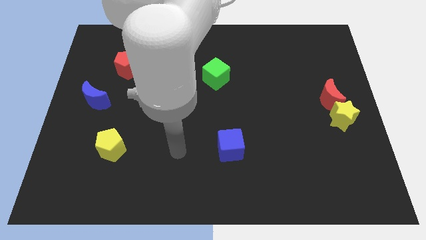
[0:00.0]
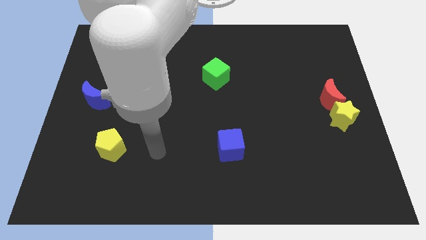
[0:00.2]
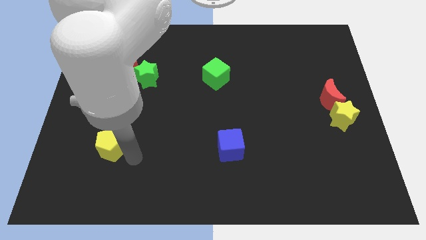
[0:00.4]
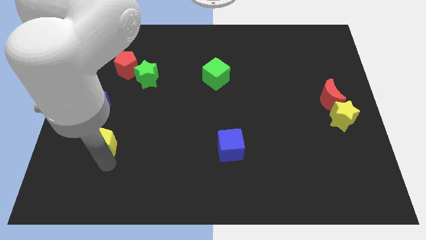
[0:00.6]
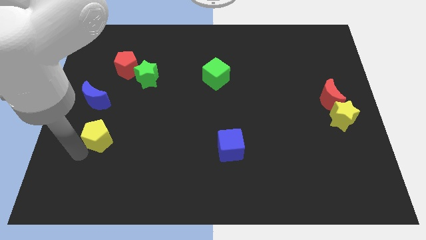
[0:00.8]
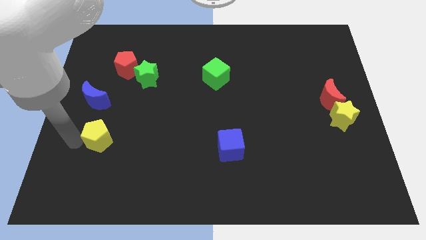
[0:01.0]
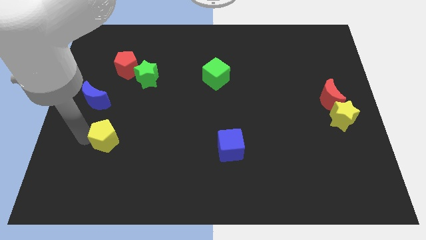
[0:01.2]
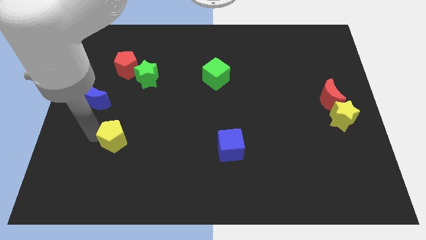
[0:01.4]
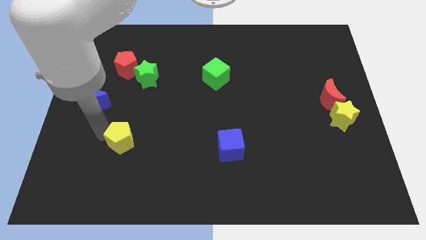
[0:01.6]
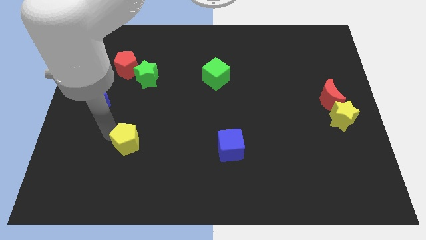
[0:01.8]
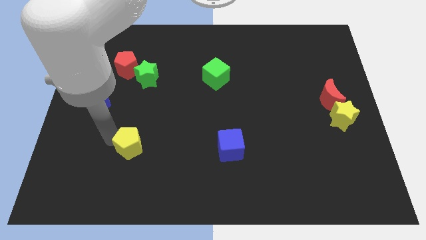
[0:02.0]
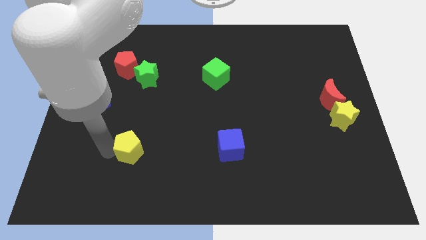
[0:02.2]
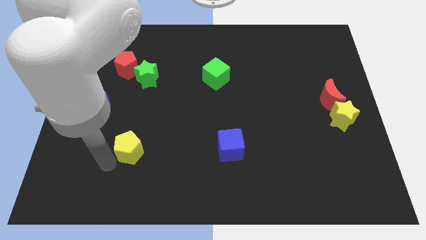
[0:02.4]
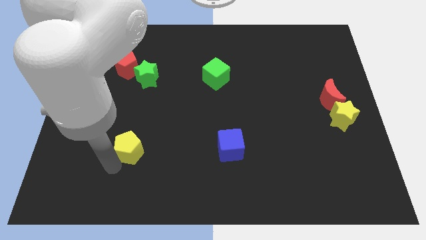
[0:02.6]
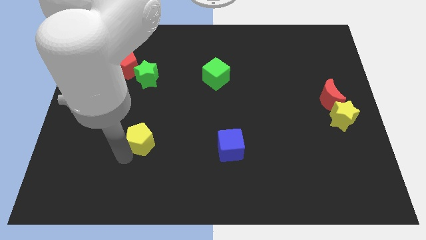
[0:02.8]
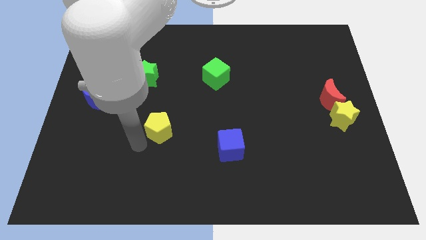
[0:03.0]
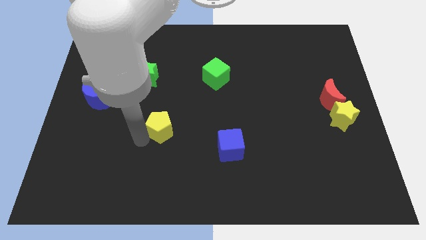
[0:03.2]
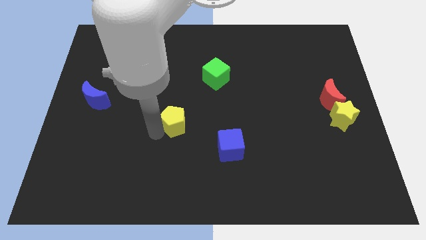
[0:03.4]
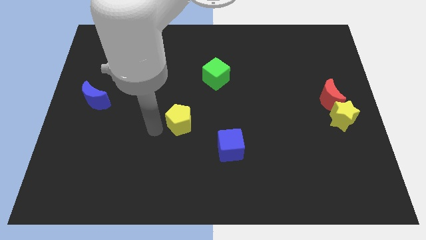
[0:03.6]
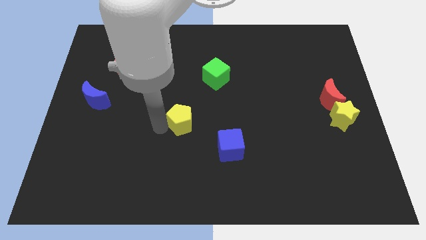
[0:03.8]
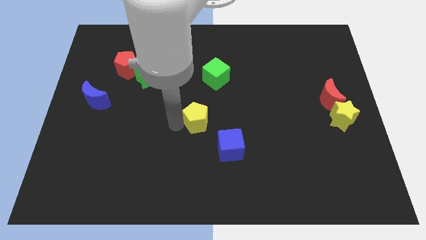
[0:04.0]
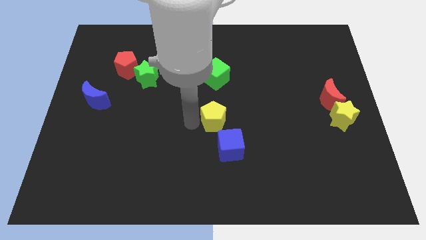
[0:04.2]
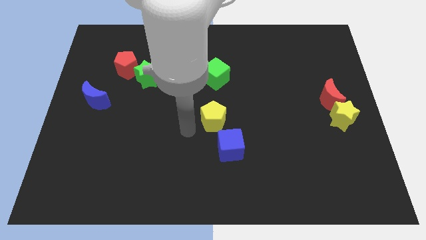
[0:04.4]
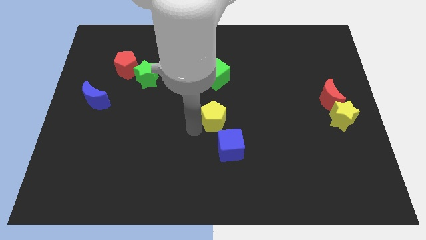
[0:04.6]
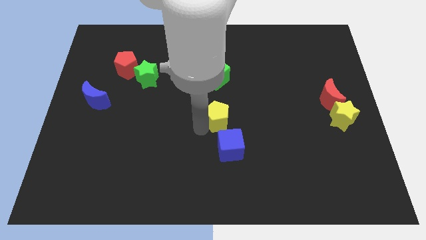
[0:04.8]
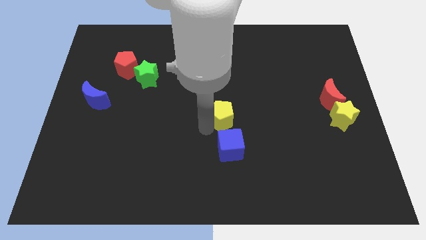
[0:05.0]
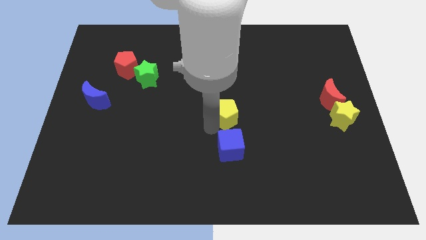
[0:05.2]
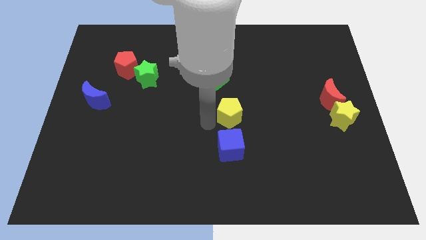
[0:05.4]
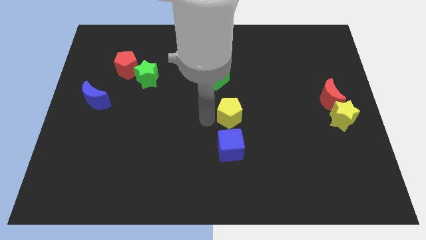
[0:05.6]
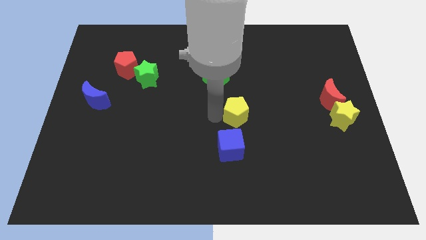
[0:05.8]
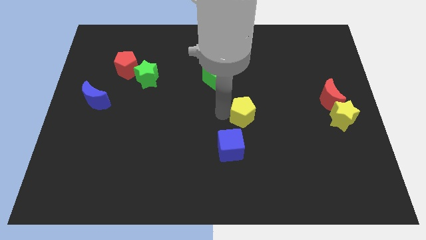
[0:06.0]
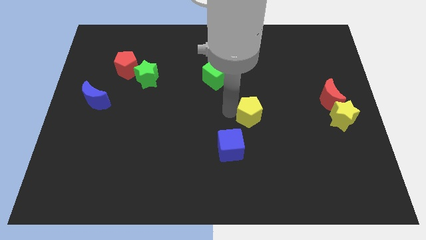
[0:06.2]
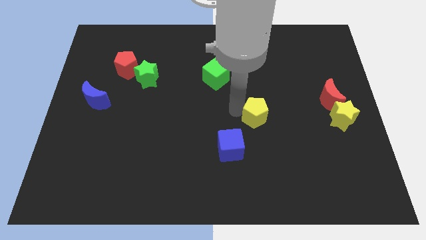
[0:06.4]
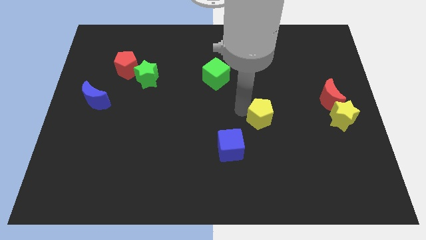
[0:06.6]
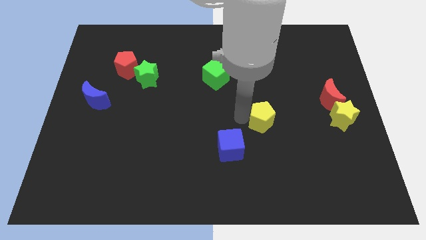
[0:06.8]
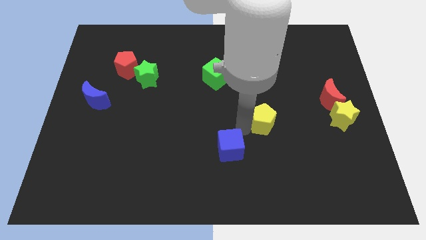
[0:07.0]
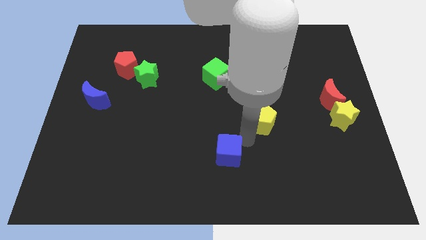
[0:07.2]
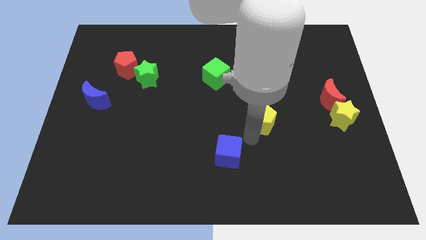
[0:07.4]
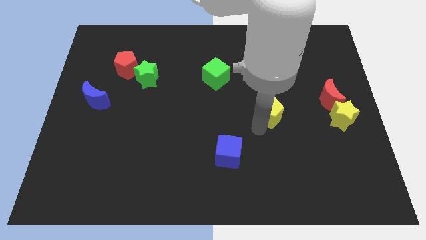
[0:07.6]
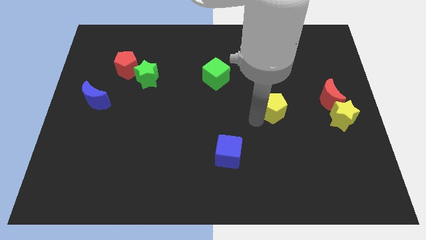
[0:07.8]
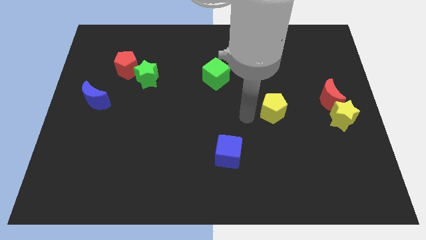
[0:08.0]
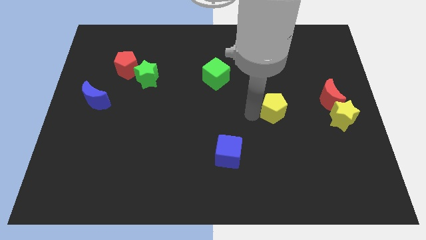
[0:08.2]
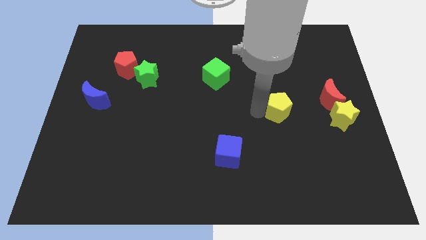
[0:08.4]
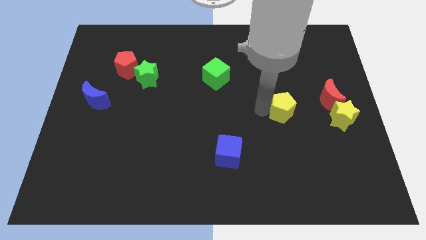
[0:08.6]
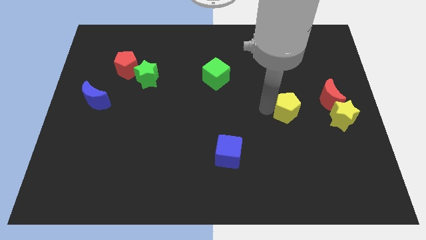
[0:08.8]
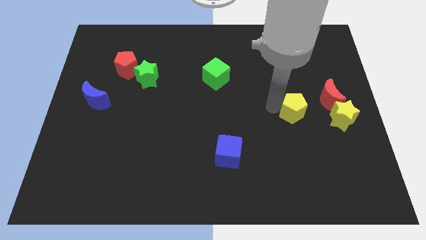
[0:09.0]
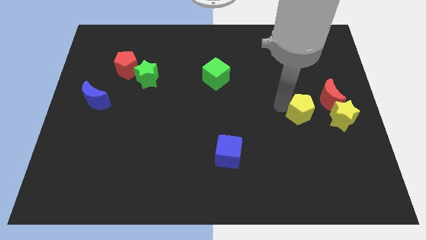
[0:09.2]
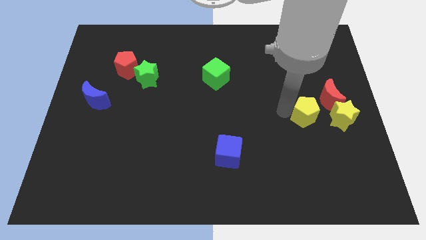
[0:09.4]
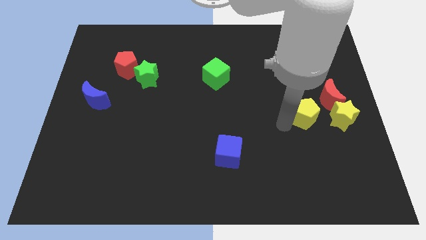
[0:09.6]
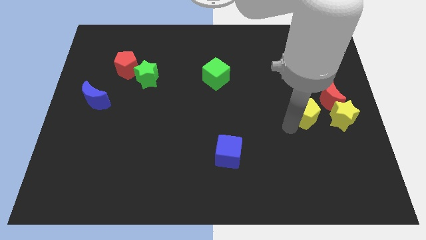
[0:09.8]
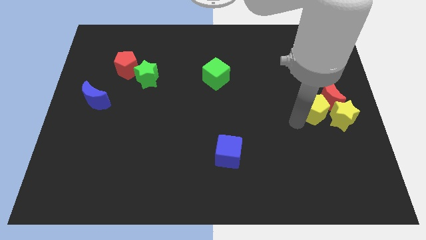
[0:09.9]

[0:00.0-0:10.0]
slide the yellow pentagon close to the red moon

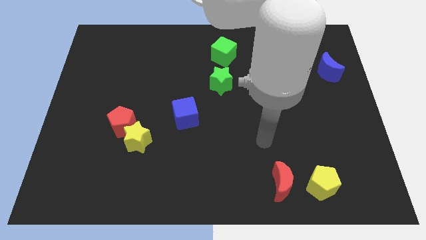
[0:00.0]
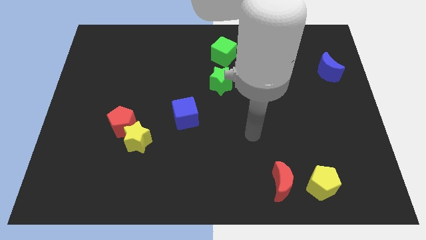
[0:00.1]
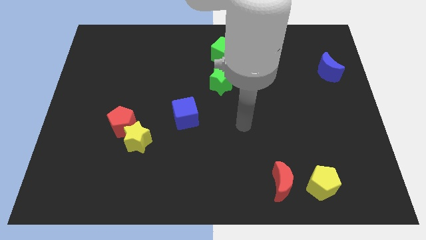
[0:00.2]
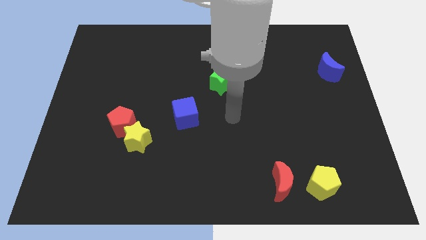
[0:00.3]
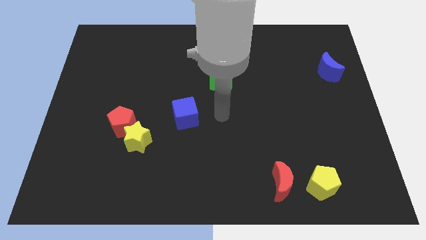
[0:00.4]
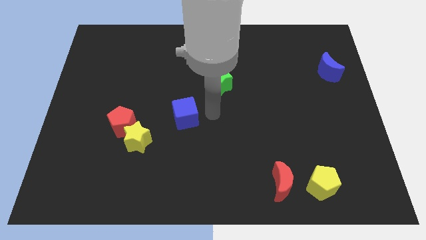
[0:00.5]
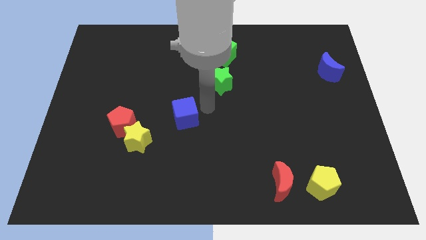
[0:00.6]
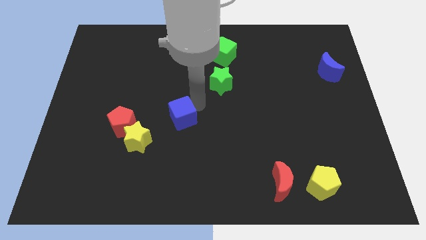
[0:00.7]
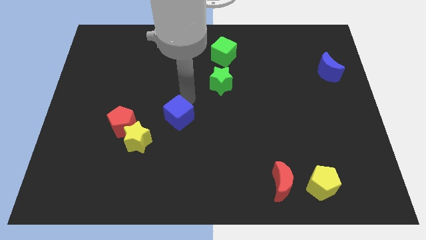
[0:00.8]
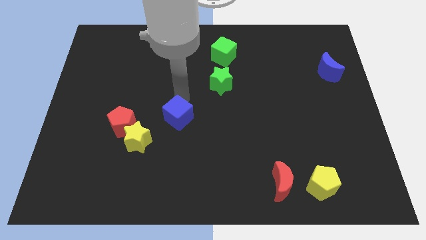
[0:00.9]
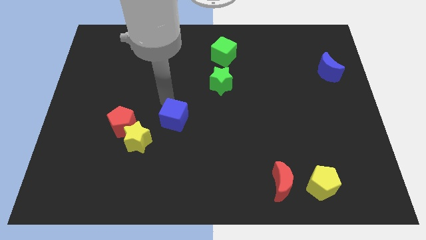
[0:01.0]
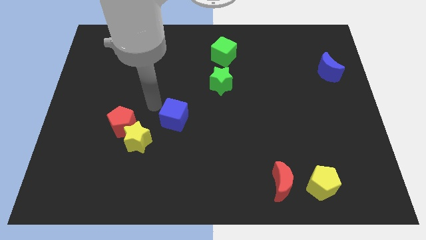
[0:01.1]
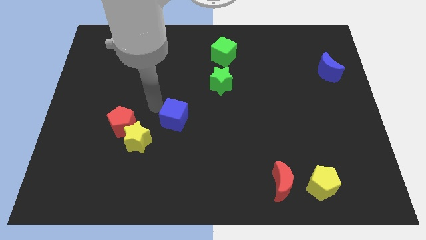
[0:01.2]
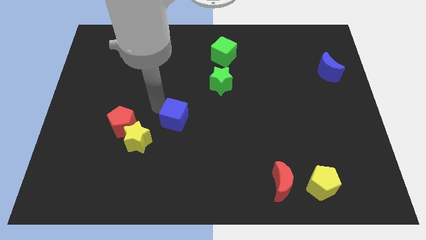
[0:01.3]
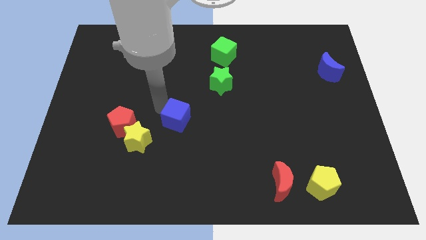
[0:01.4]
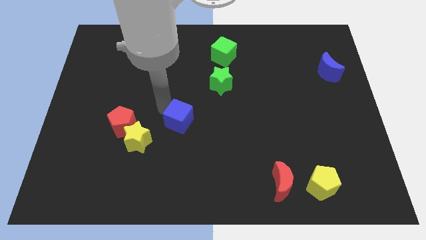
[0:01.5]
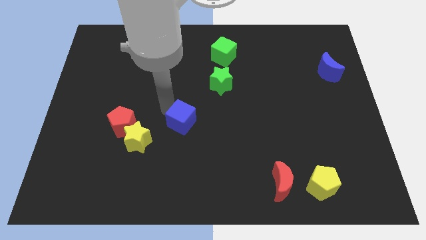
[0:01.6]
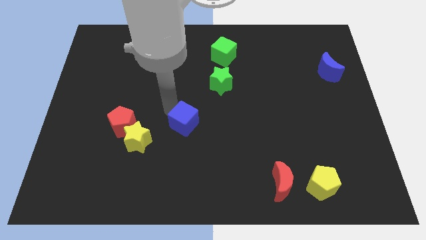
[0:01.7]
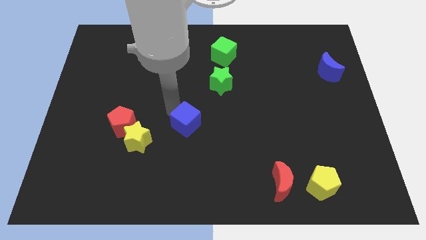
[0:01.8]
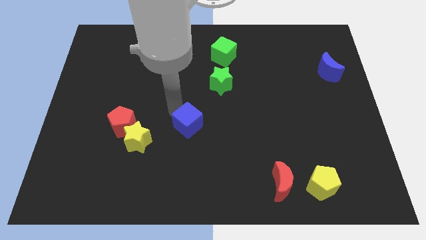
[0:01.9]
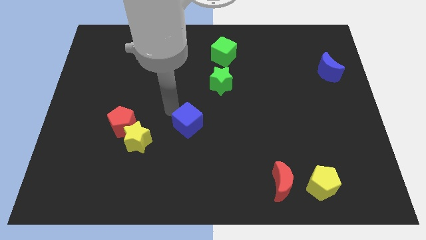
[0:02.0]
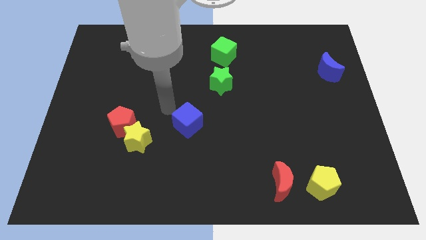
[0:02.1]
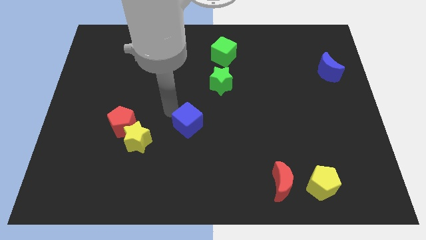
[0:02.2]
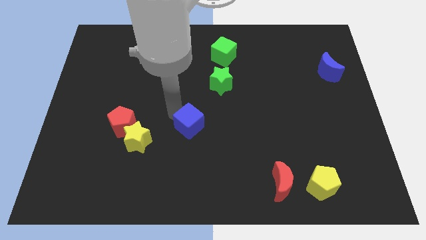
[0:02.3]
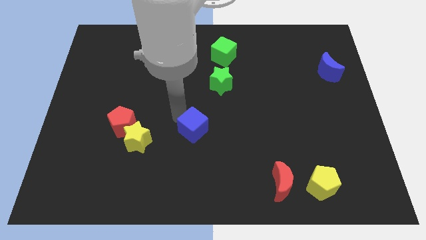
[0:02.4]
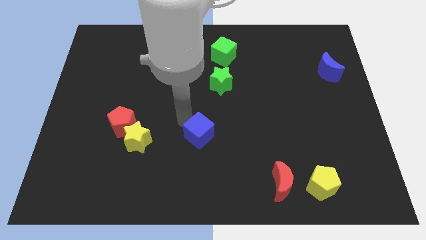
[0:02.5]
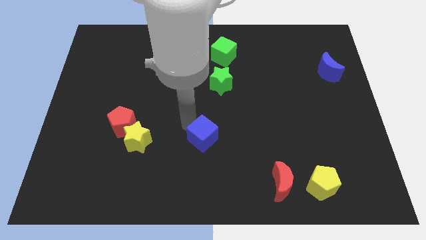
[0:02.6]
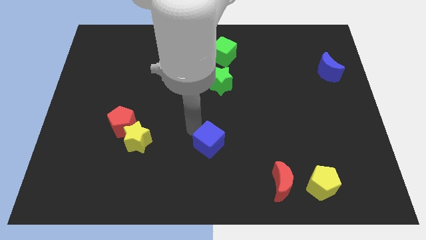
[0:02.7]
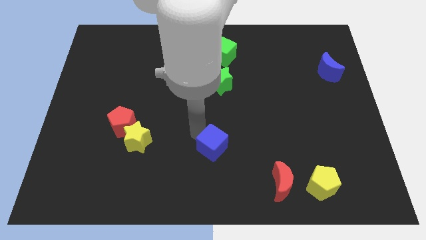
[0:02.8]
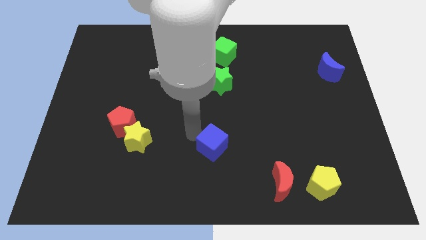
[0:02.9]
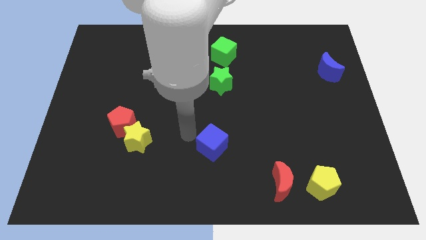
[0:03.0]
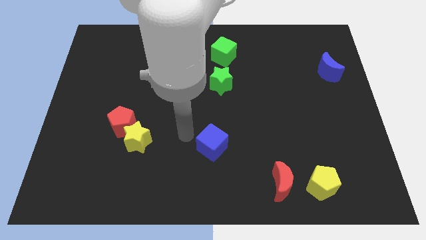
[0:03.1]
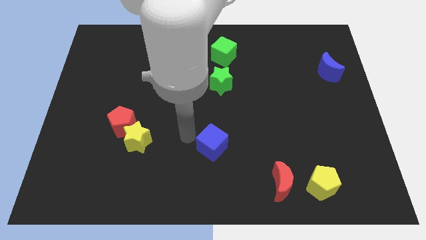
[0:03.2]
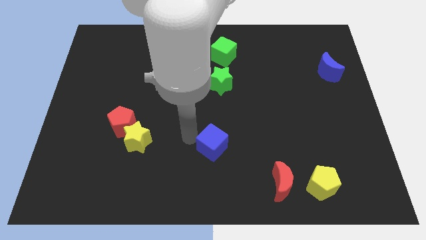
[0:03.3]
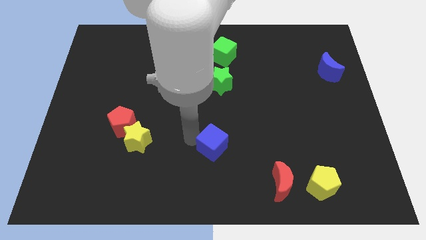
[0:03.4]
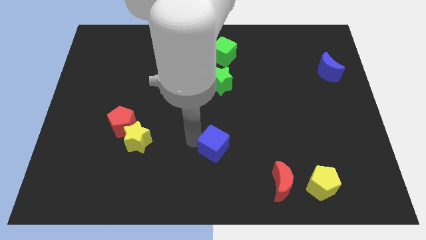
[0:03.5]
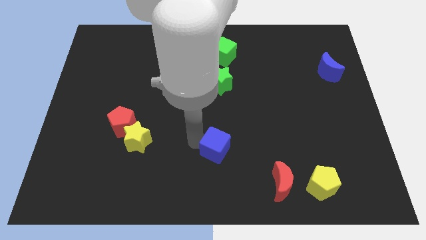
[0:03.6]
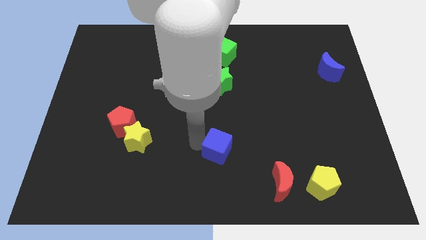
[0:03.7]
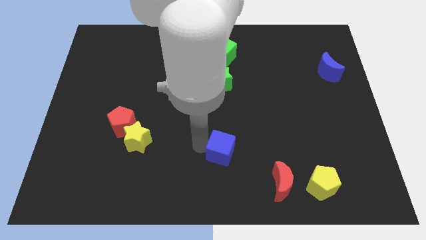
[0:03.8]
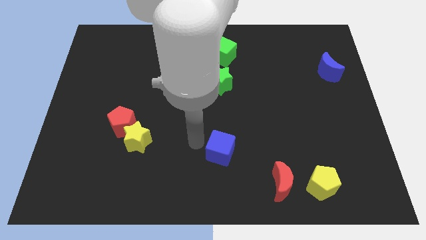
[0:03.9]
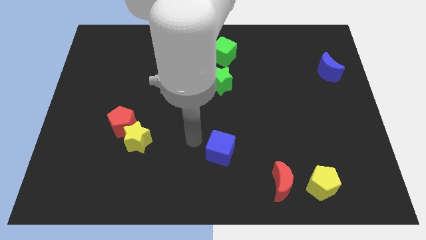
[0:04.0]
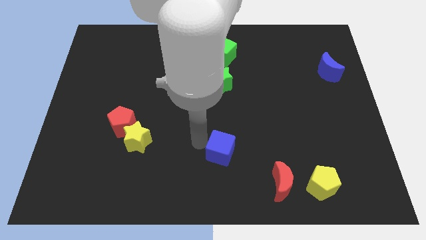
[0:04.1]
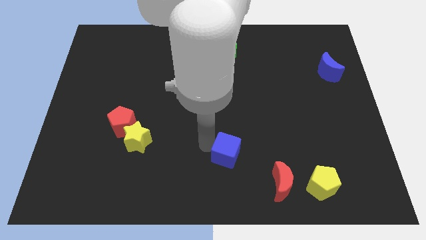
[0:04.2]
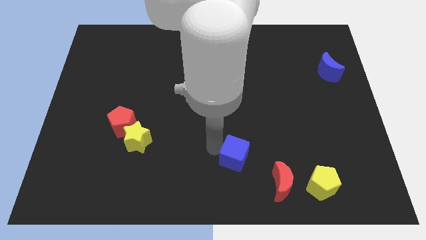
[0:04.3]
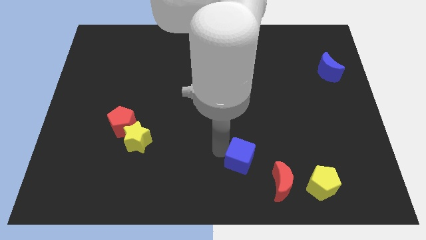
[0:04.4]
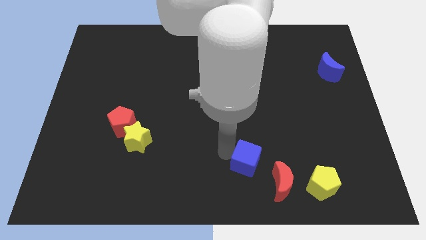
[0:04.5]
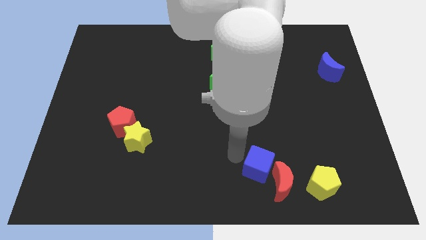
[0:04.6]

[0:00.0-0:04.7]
put the blue cube towards the red moon
